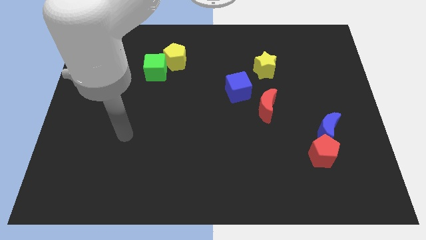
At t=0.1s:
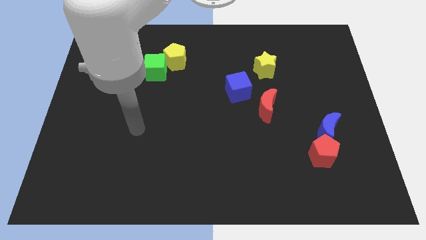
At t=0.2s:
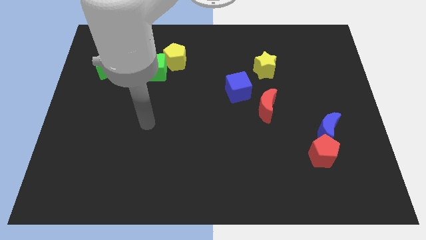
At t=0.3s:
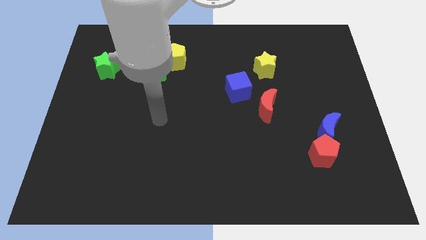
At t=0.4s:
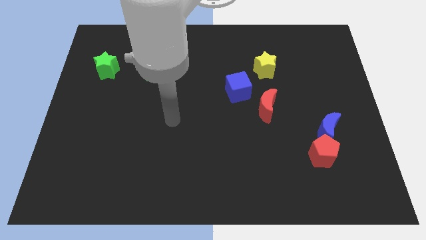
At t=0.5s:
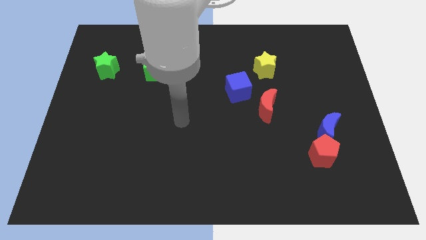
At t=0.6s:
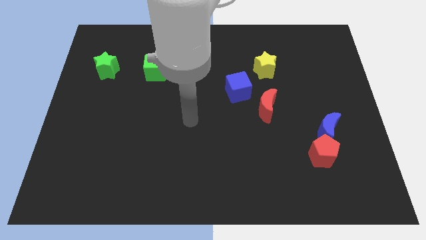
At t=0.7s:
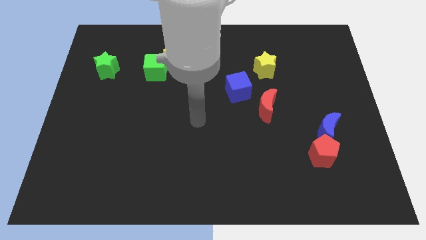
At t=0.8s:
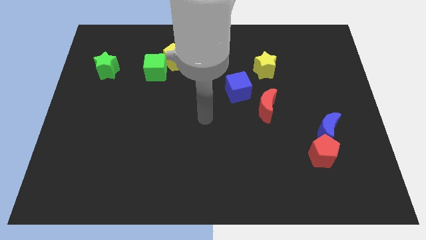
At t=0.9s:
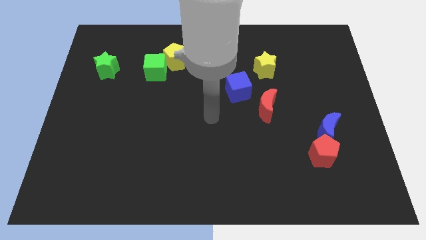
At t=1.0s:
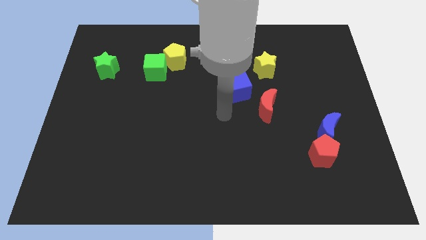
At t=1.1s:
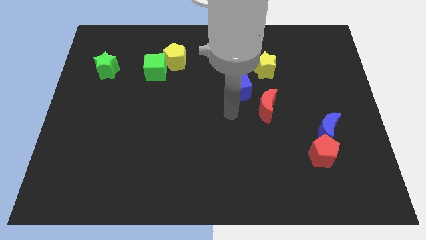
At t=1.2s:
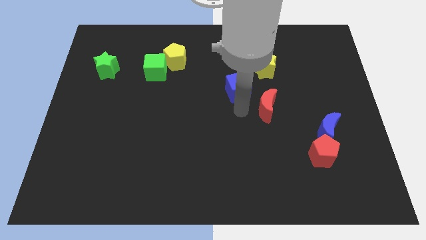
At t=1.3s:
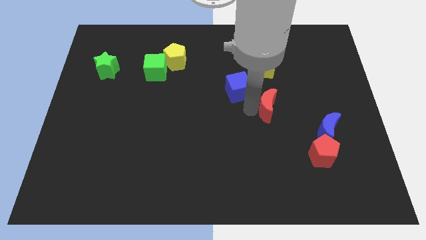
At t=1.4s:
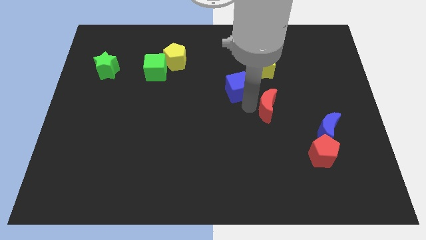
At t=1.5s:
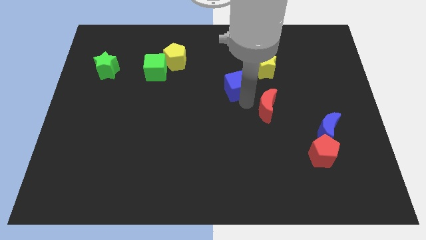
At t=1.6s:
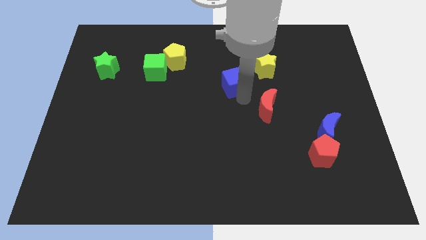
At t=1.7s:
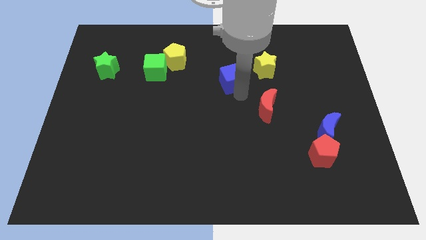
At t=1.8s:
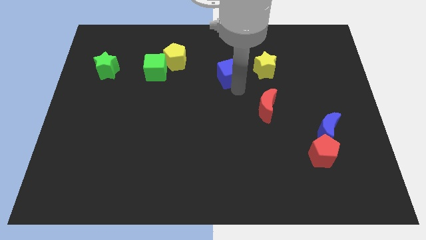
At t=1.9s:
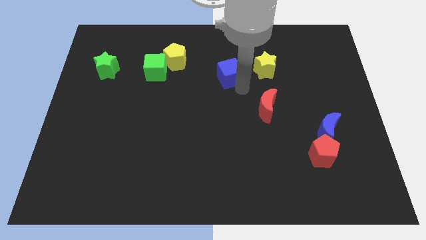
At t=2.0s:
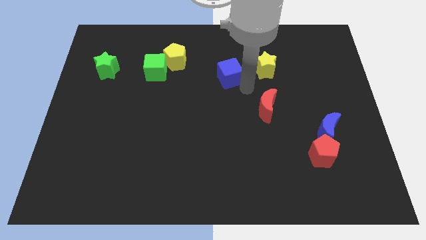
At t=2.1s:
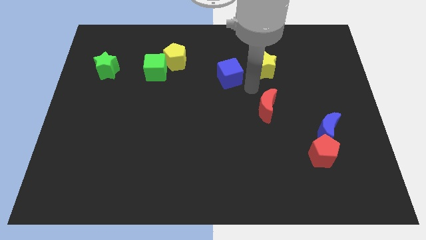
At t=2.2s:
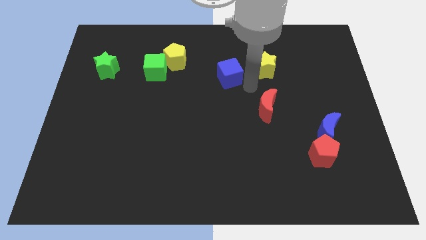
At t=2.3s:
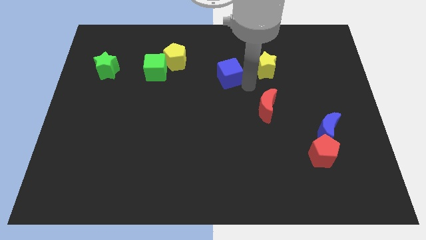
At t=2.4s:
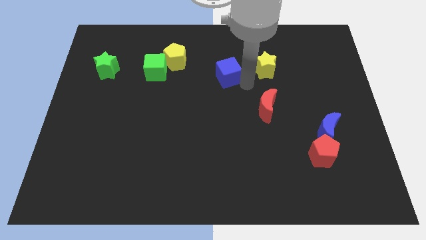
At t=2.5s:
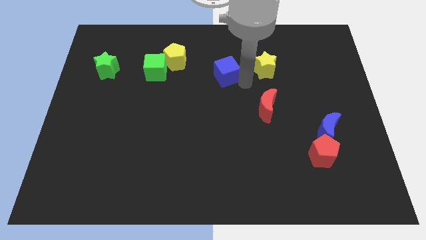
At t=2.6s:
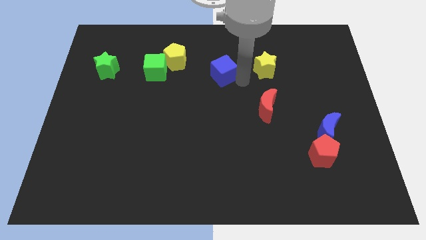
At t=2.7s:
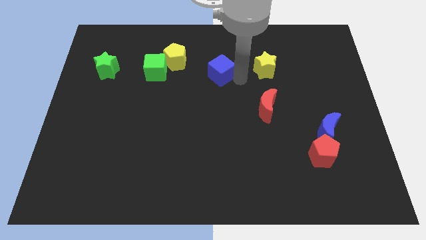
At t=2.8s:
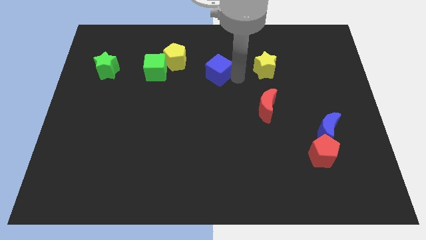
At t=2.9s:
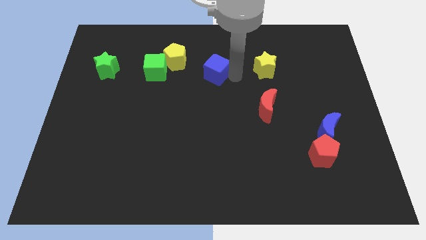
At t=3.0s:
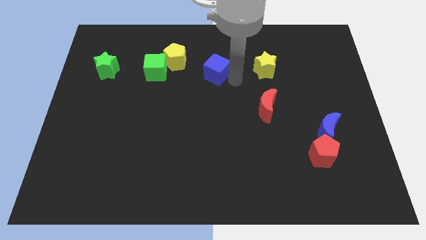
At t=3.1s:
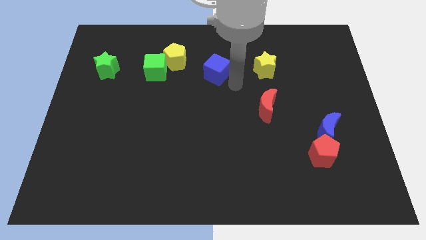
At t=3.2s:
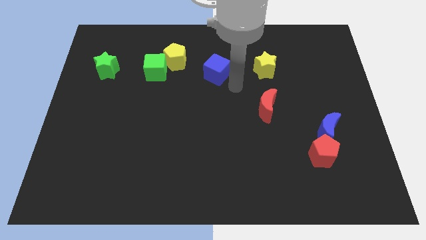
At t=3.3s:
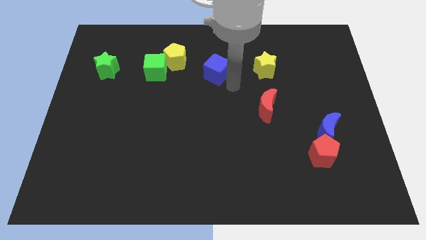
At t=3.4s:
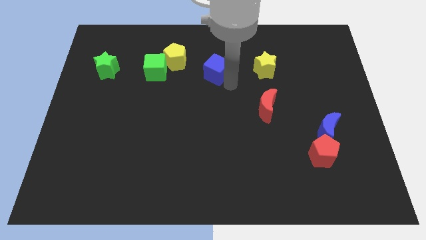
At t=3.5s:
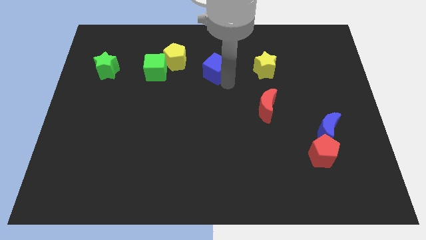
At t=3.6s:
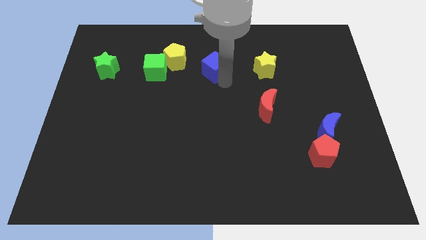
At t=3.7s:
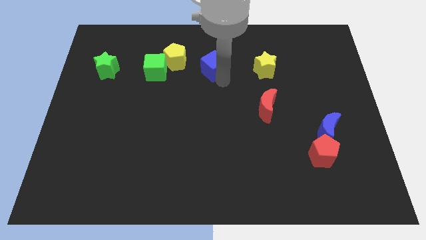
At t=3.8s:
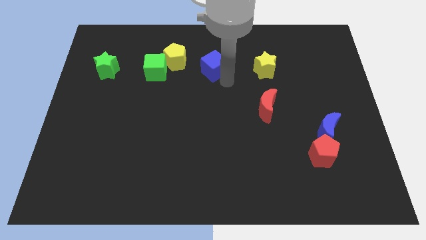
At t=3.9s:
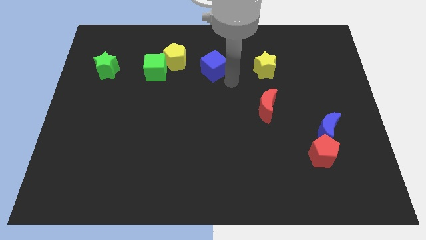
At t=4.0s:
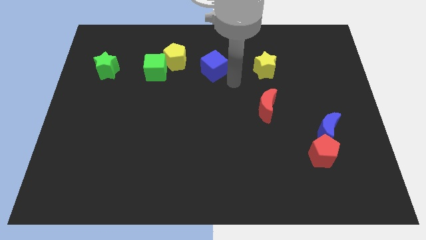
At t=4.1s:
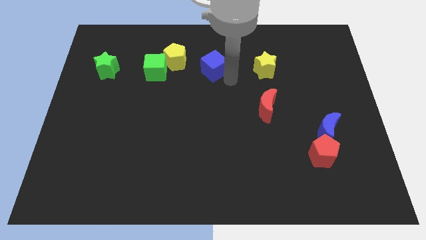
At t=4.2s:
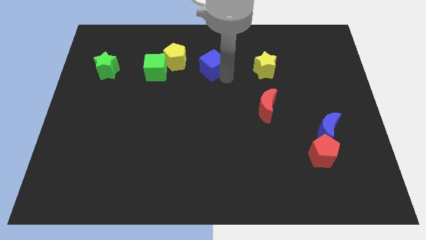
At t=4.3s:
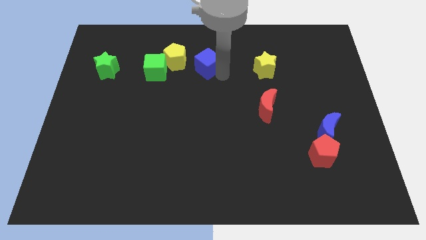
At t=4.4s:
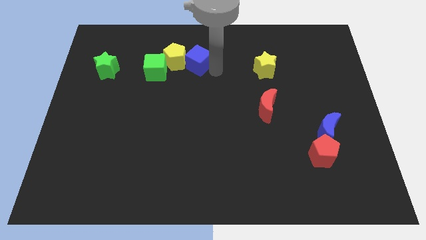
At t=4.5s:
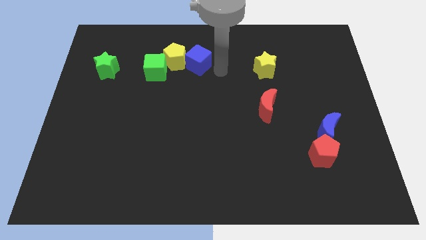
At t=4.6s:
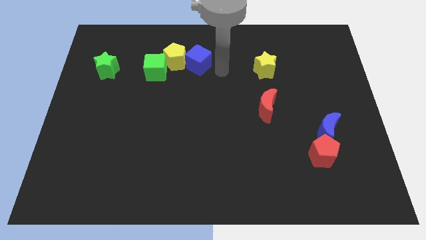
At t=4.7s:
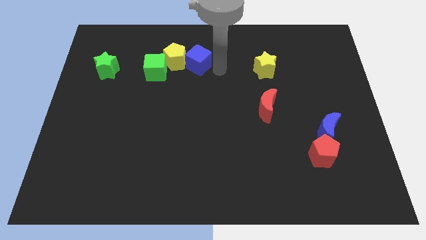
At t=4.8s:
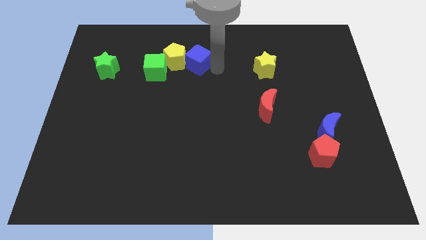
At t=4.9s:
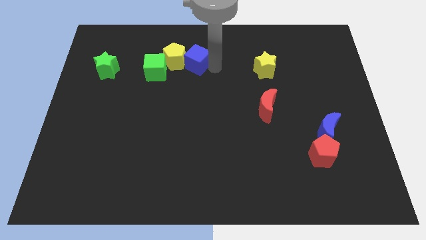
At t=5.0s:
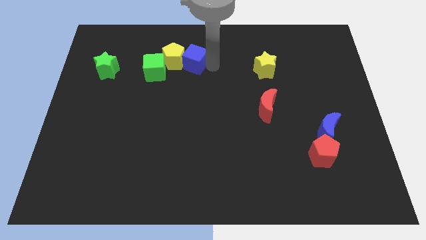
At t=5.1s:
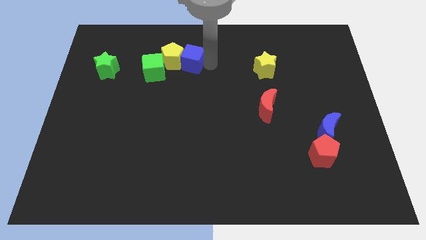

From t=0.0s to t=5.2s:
slide the blue cube to the top right side of the green cube

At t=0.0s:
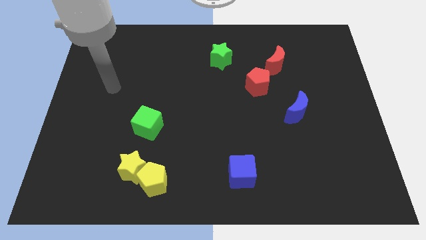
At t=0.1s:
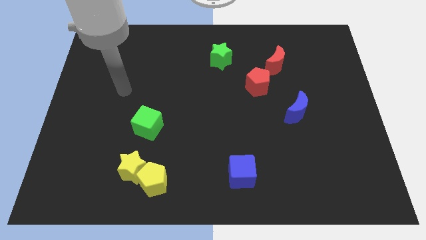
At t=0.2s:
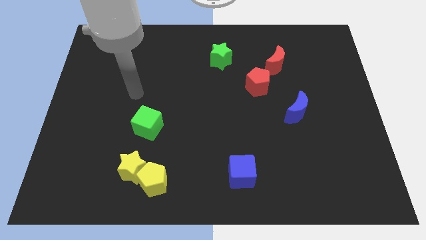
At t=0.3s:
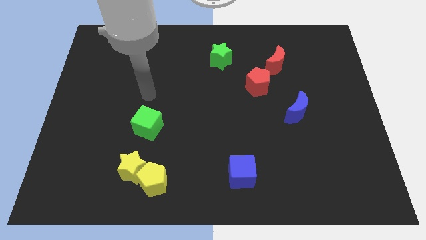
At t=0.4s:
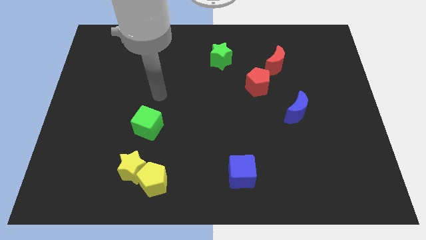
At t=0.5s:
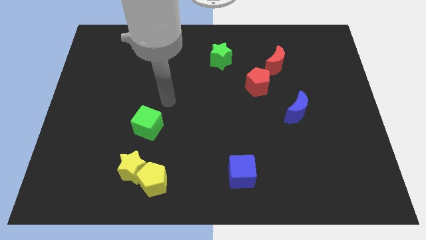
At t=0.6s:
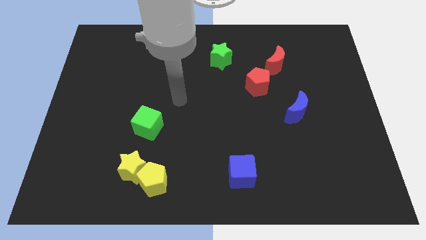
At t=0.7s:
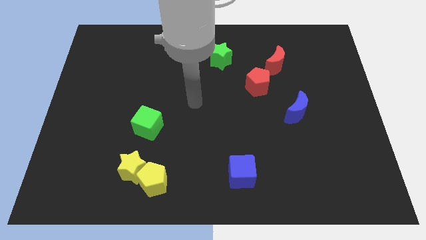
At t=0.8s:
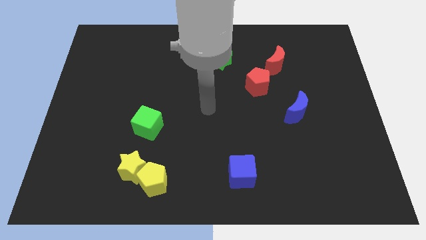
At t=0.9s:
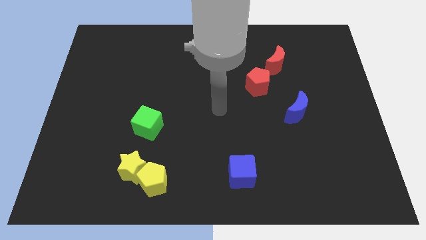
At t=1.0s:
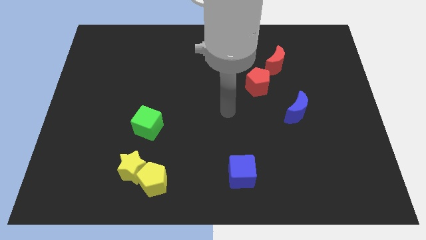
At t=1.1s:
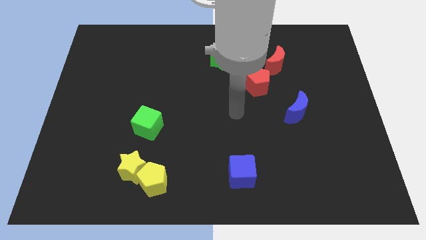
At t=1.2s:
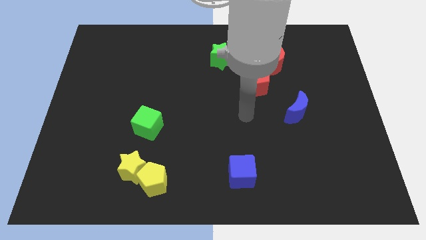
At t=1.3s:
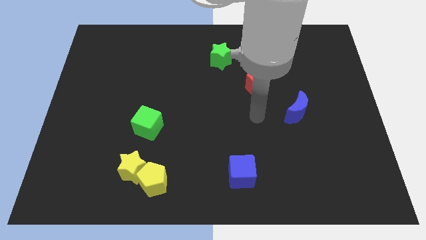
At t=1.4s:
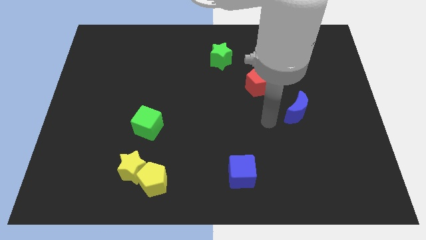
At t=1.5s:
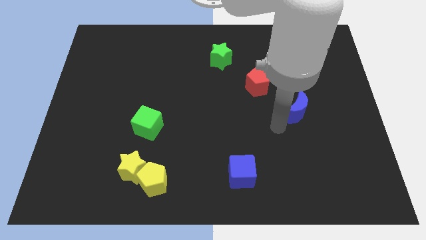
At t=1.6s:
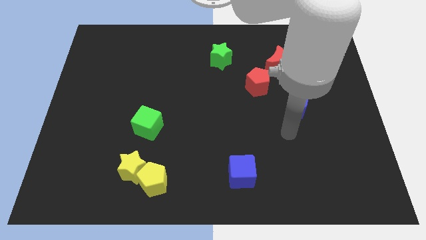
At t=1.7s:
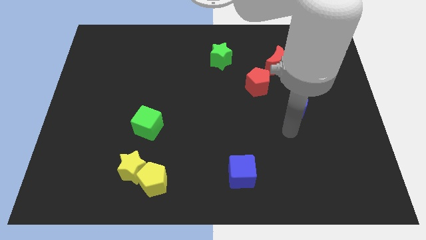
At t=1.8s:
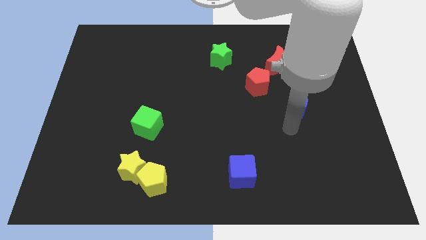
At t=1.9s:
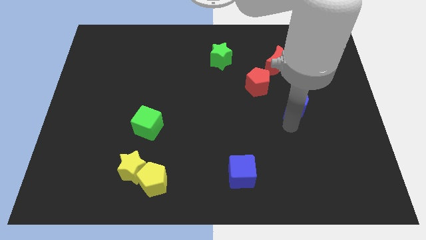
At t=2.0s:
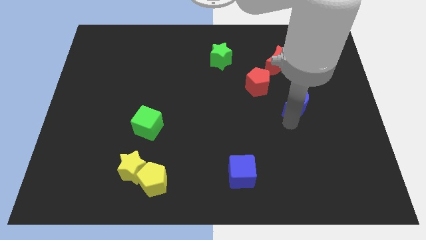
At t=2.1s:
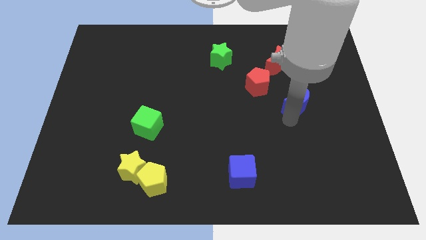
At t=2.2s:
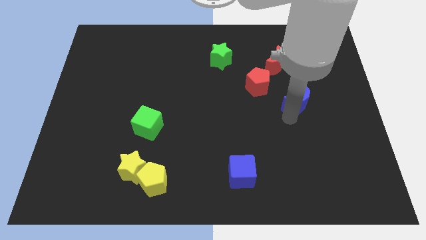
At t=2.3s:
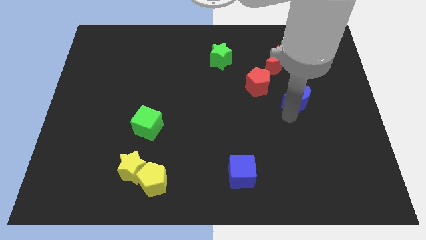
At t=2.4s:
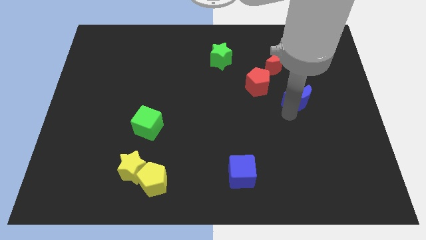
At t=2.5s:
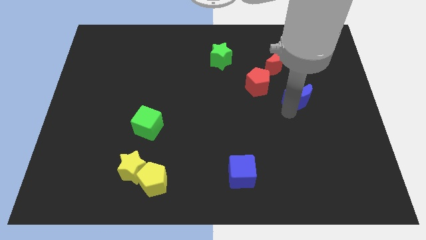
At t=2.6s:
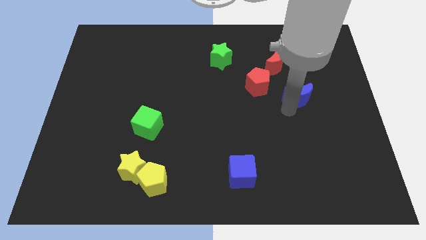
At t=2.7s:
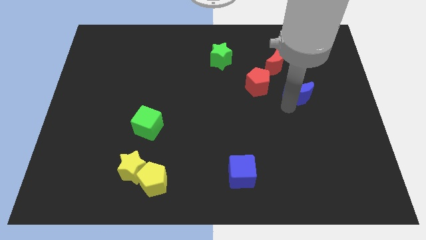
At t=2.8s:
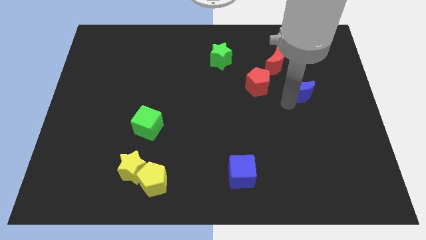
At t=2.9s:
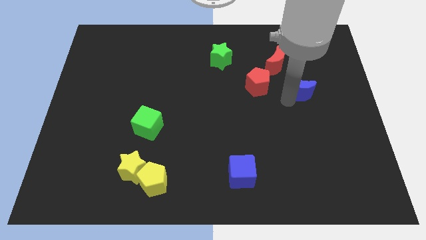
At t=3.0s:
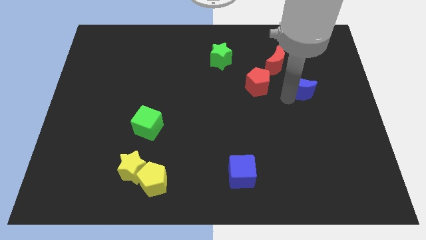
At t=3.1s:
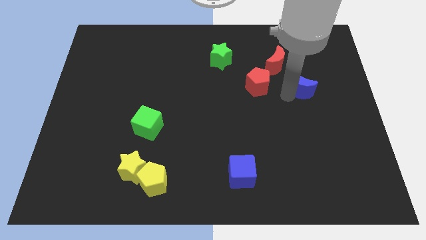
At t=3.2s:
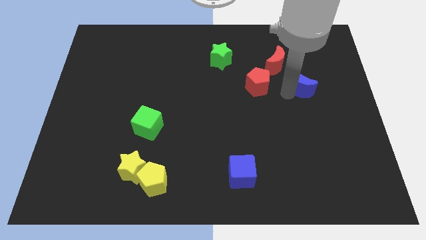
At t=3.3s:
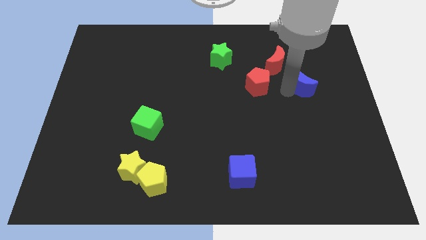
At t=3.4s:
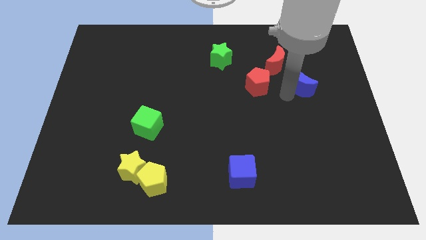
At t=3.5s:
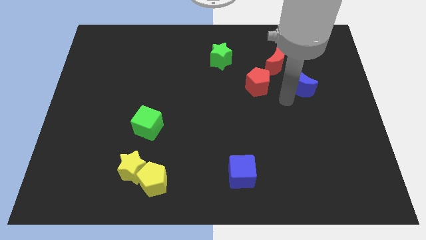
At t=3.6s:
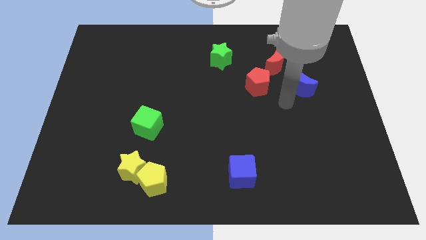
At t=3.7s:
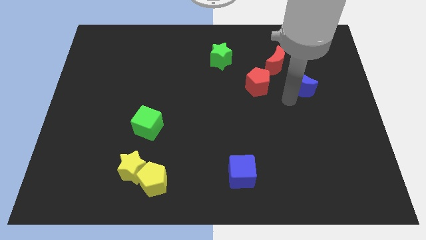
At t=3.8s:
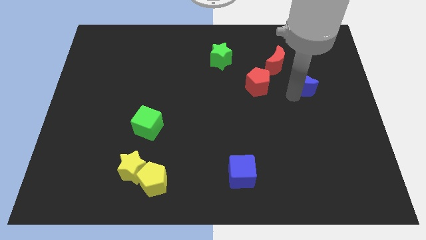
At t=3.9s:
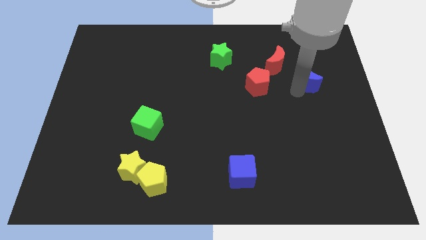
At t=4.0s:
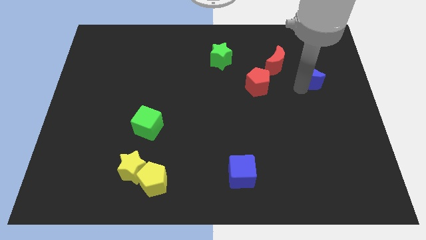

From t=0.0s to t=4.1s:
move the blue moon to the right side of the red moon
